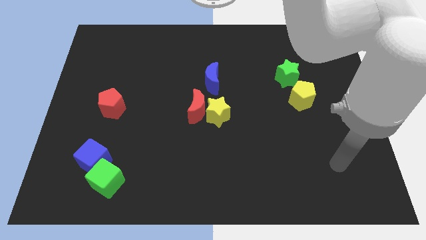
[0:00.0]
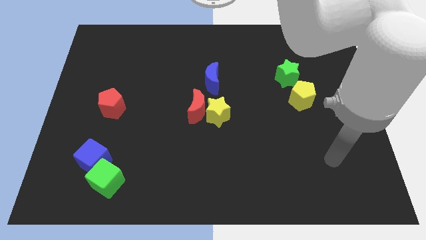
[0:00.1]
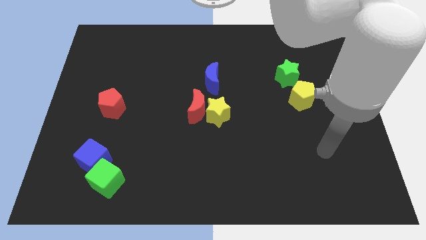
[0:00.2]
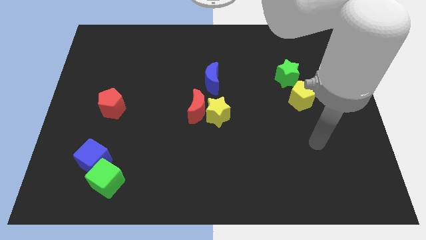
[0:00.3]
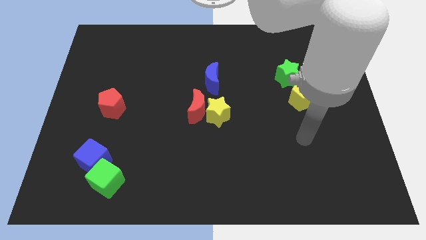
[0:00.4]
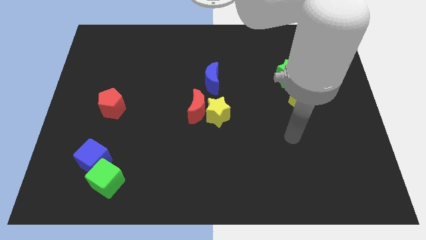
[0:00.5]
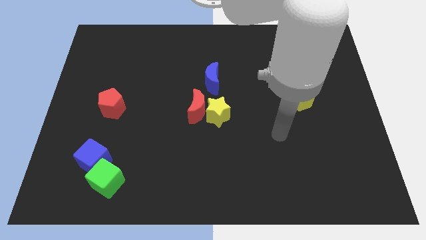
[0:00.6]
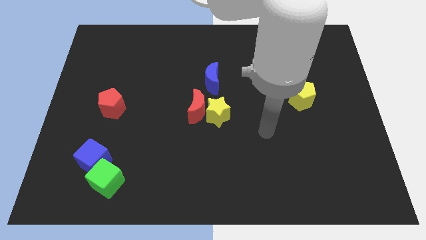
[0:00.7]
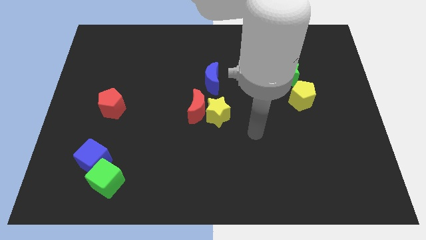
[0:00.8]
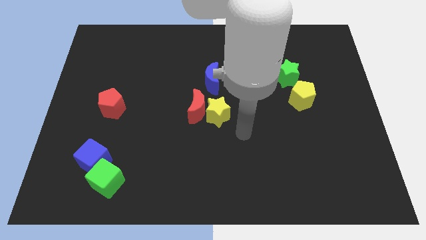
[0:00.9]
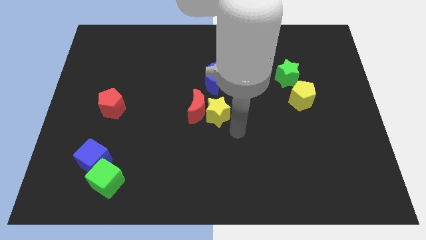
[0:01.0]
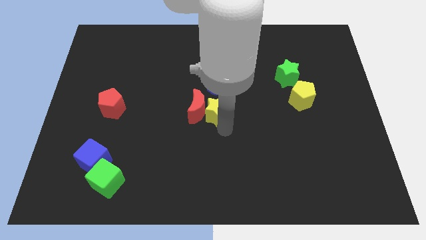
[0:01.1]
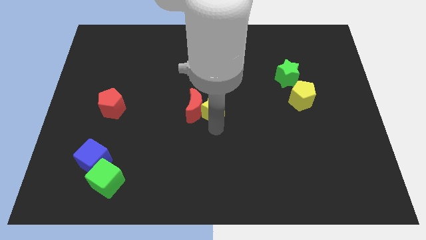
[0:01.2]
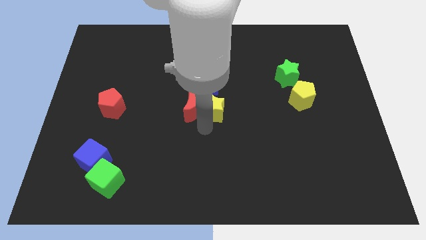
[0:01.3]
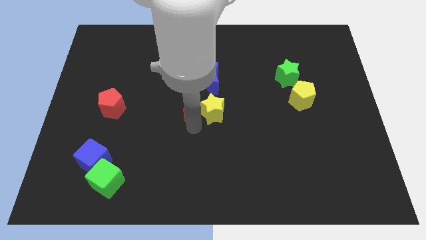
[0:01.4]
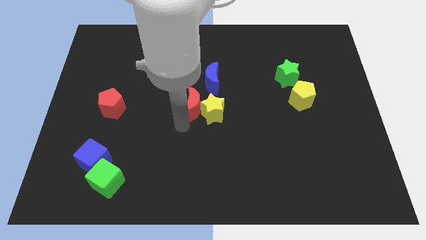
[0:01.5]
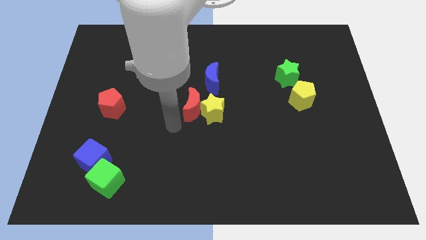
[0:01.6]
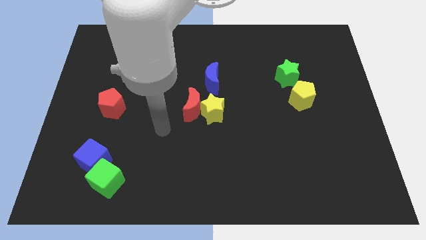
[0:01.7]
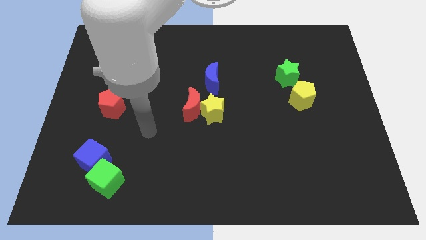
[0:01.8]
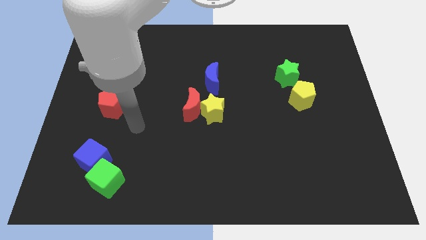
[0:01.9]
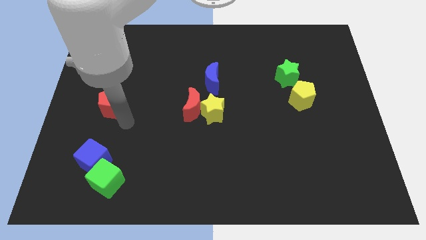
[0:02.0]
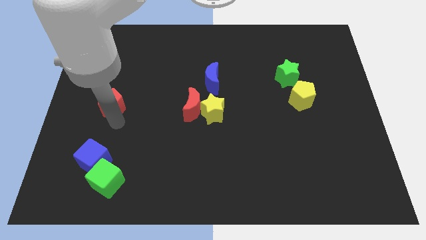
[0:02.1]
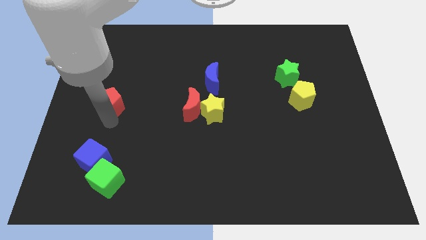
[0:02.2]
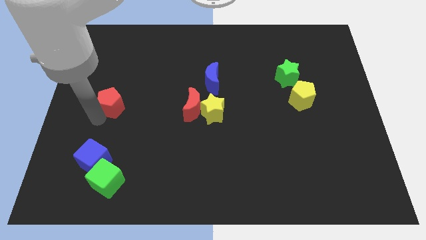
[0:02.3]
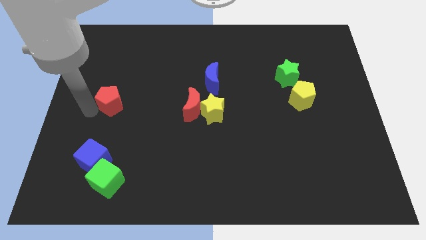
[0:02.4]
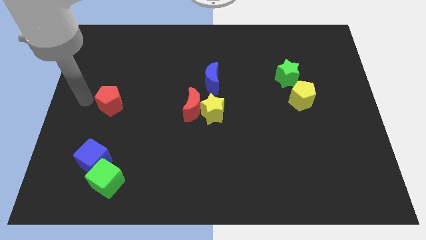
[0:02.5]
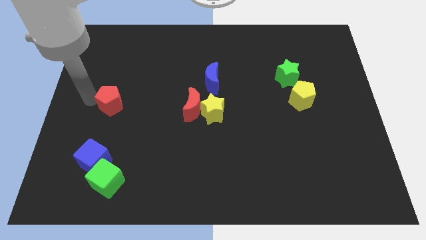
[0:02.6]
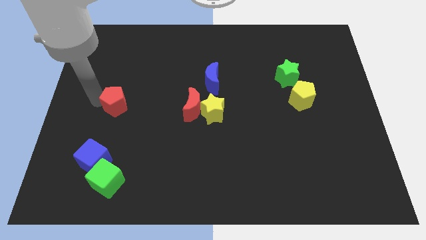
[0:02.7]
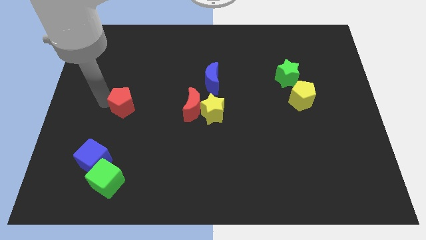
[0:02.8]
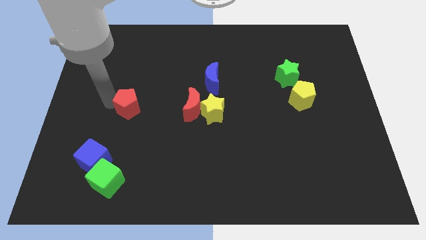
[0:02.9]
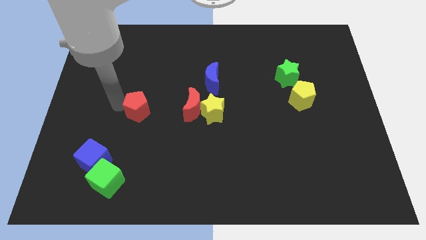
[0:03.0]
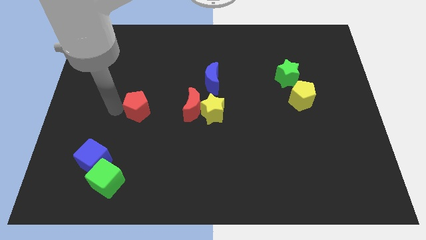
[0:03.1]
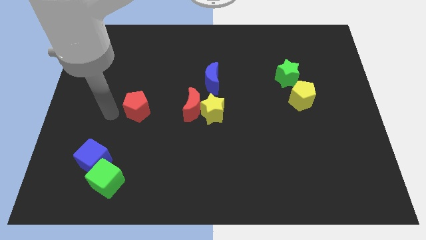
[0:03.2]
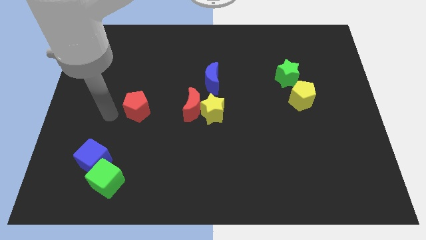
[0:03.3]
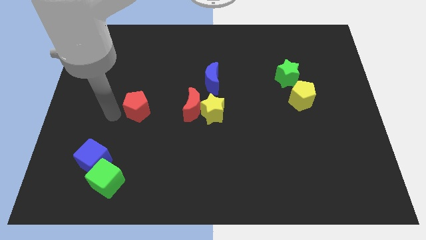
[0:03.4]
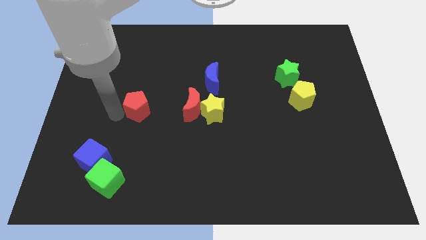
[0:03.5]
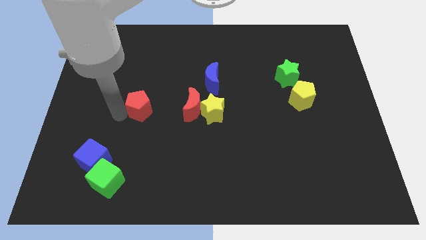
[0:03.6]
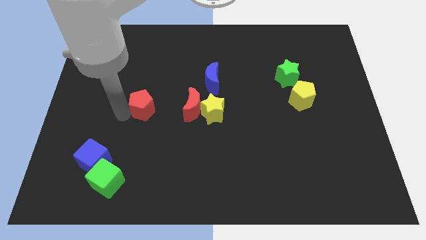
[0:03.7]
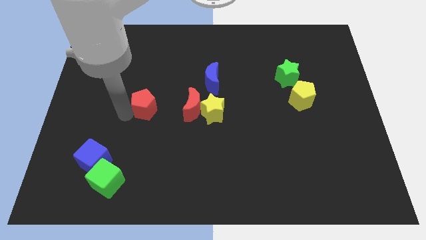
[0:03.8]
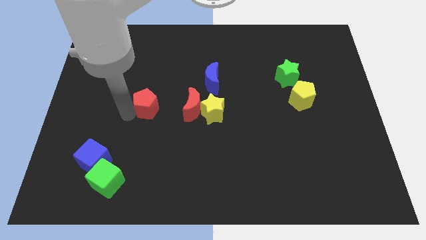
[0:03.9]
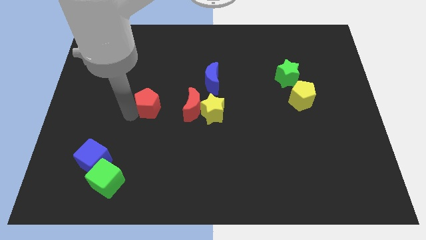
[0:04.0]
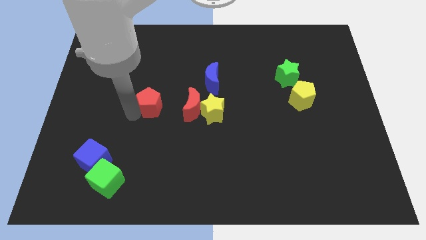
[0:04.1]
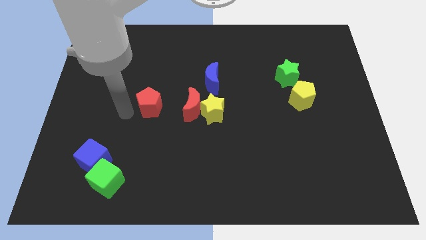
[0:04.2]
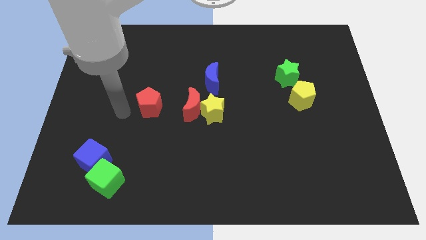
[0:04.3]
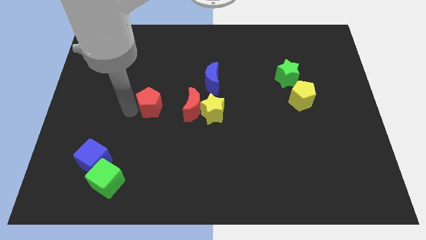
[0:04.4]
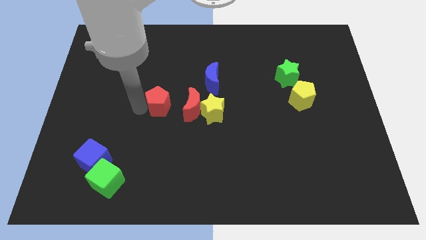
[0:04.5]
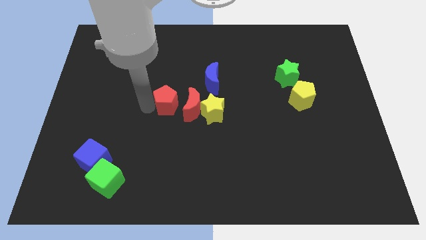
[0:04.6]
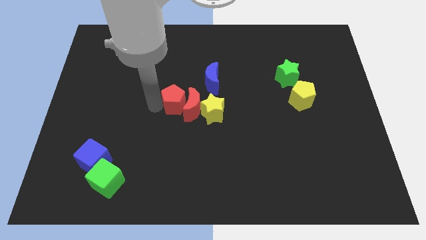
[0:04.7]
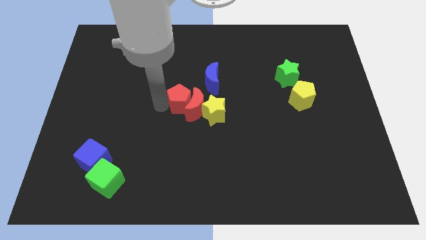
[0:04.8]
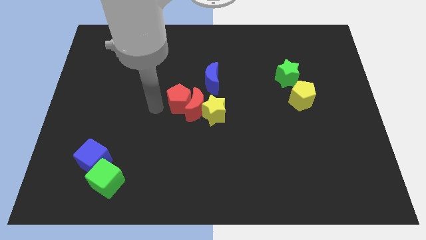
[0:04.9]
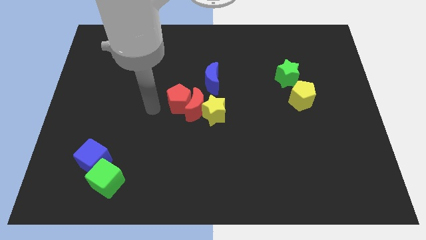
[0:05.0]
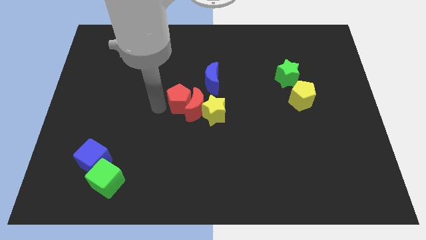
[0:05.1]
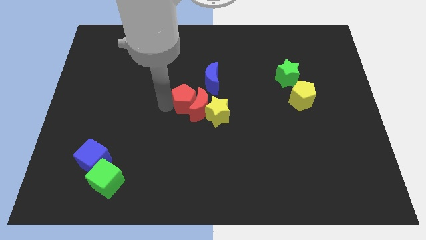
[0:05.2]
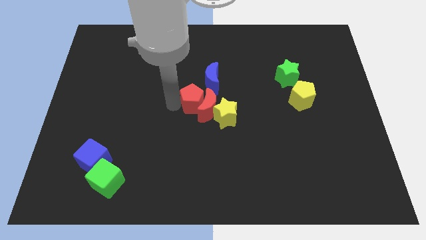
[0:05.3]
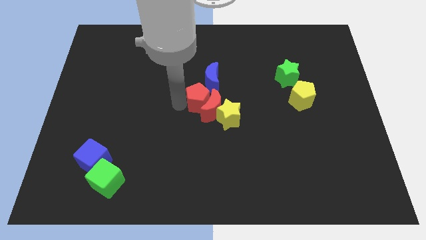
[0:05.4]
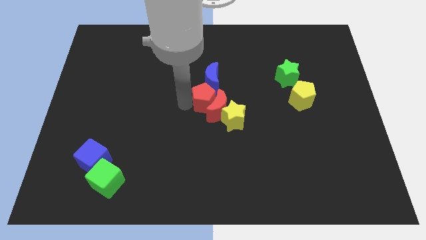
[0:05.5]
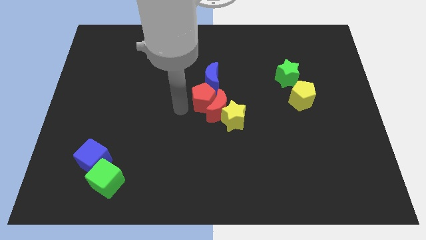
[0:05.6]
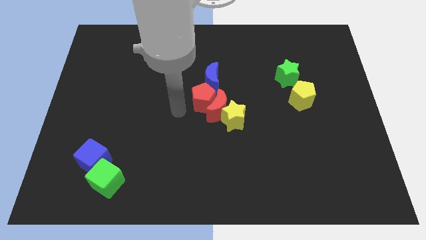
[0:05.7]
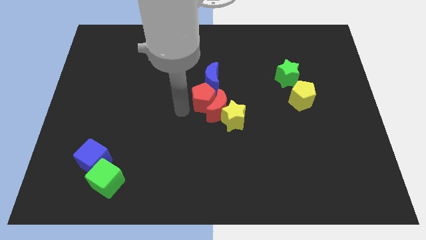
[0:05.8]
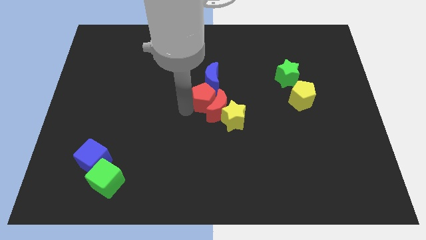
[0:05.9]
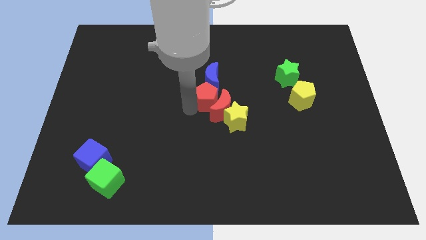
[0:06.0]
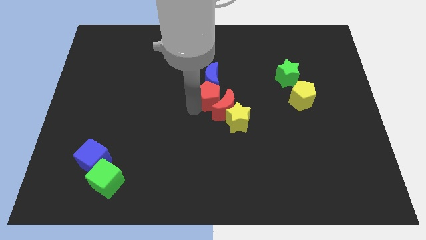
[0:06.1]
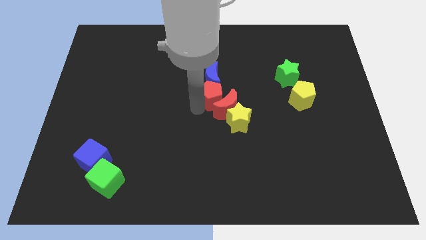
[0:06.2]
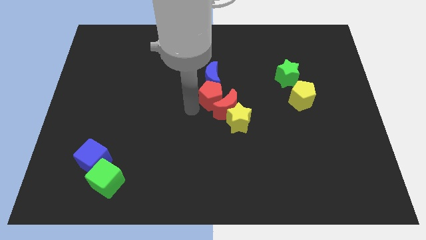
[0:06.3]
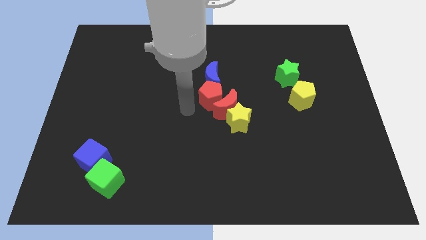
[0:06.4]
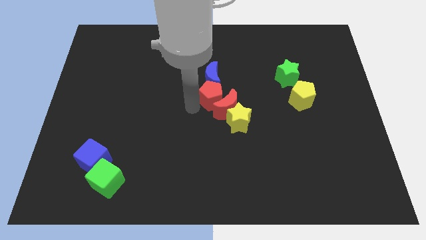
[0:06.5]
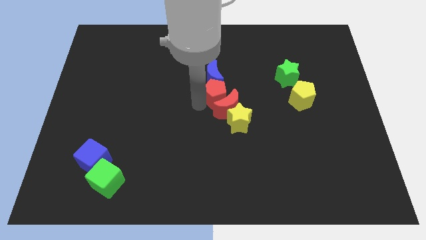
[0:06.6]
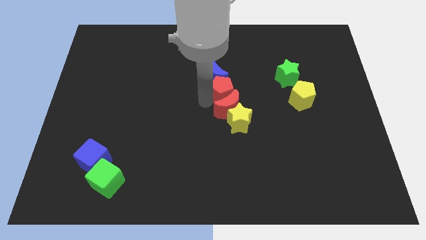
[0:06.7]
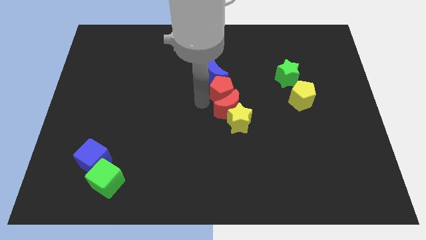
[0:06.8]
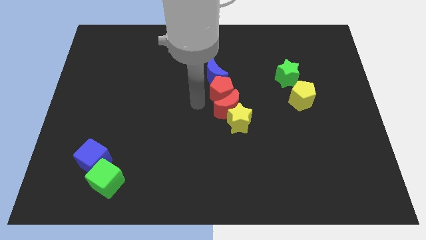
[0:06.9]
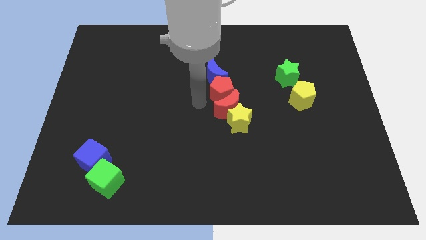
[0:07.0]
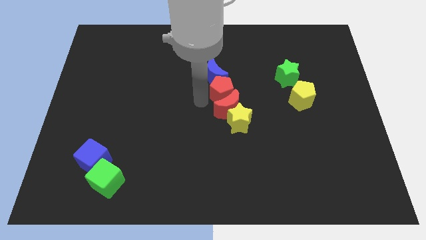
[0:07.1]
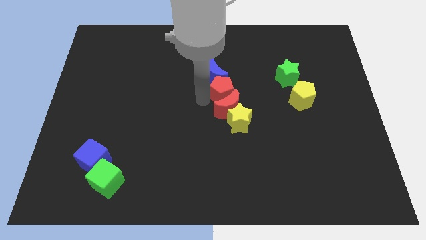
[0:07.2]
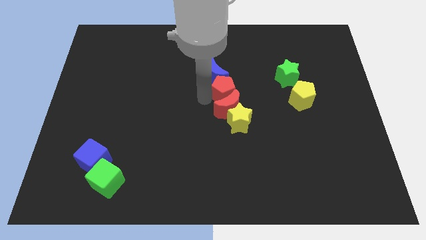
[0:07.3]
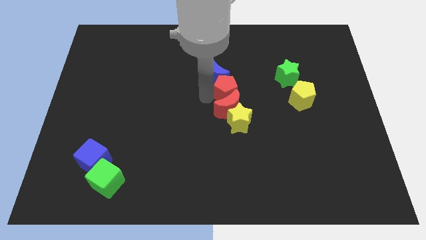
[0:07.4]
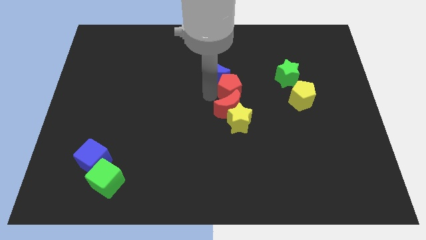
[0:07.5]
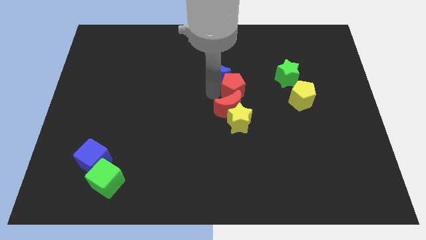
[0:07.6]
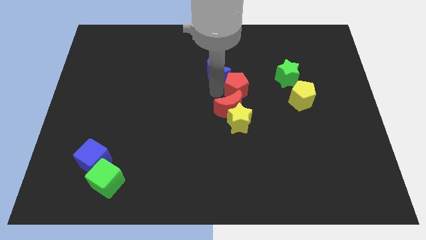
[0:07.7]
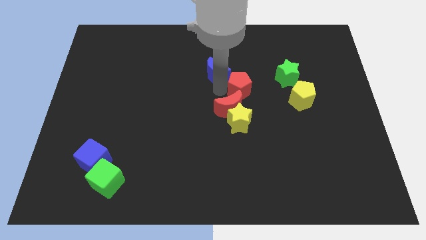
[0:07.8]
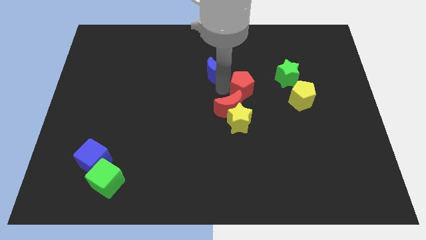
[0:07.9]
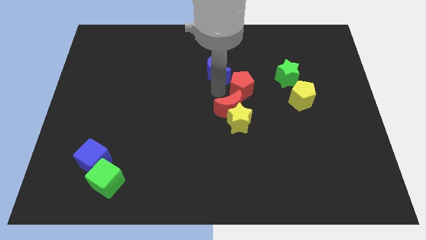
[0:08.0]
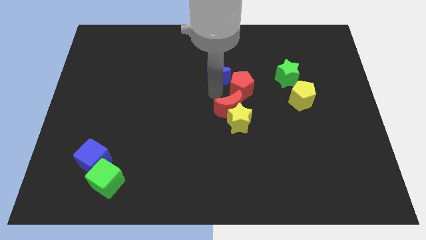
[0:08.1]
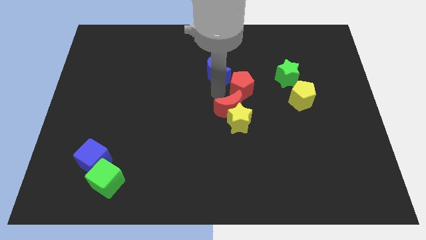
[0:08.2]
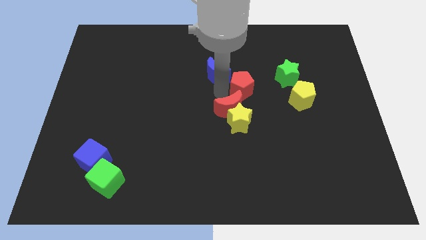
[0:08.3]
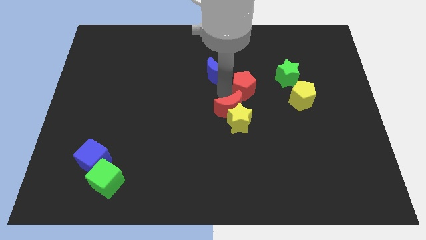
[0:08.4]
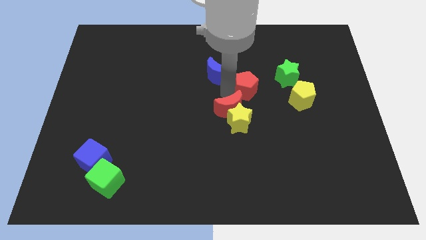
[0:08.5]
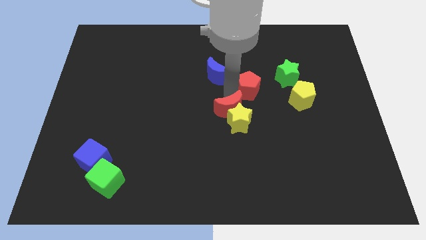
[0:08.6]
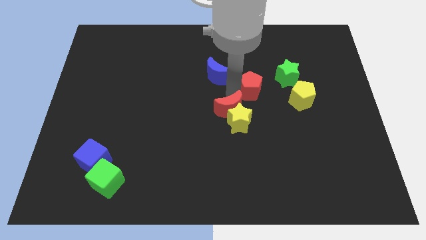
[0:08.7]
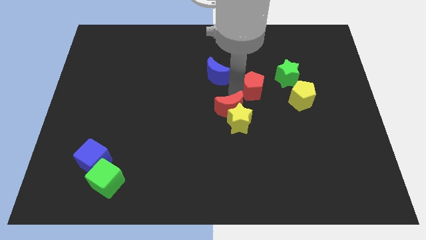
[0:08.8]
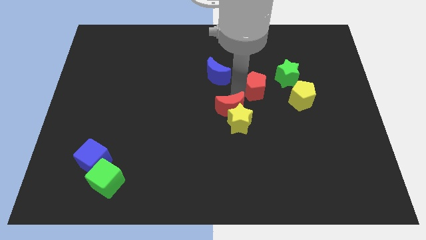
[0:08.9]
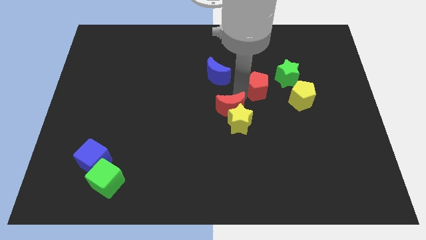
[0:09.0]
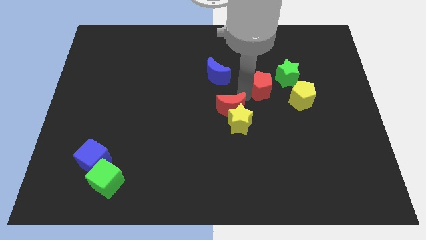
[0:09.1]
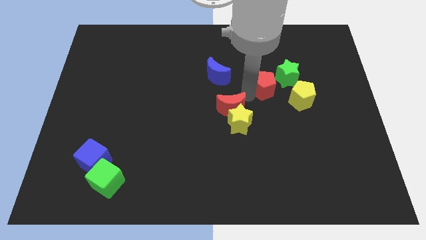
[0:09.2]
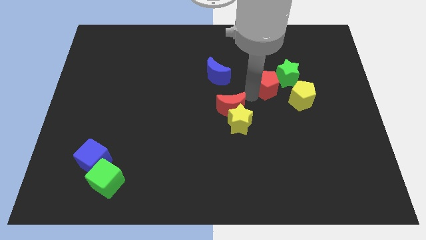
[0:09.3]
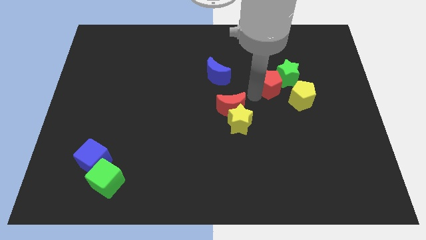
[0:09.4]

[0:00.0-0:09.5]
slide the red pentagon towards the green star
